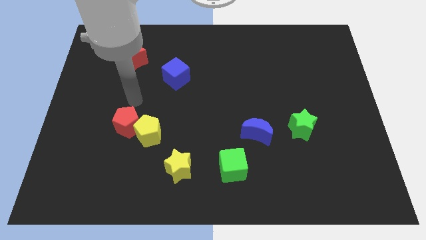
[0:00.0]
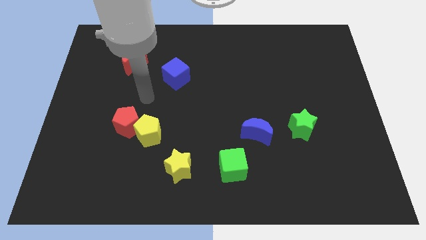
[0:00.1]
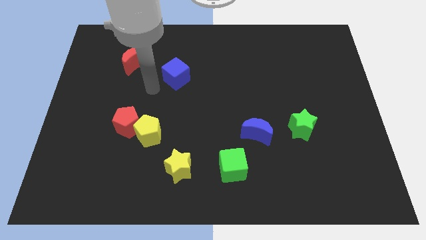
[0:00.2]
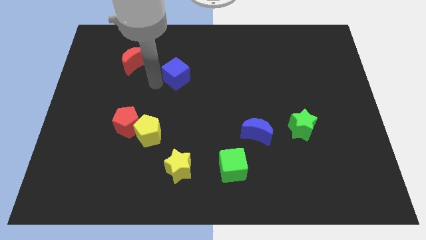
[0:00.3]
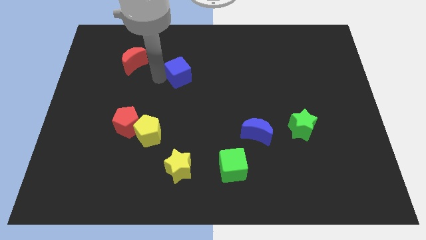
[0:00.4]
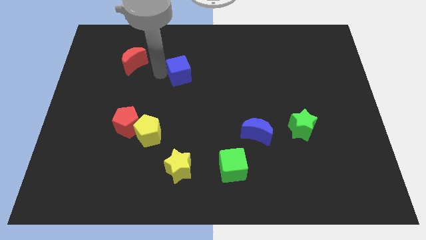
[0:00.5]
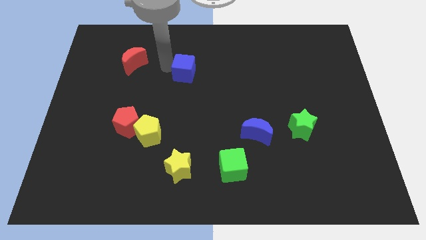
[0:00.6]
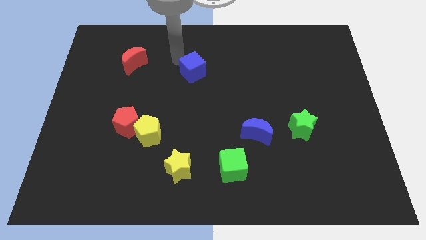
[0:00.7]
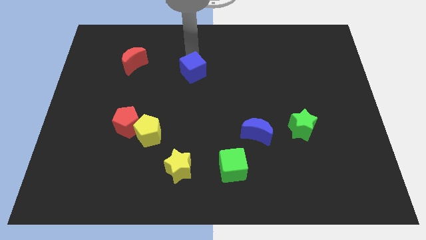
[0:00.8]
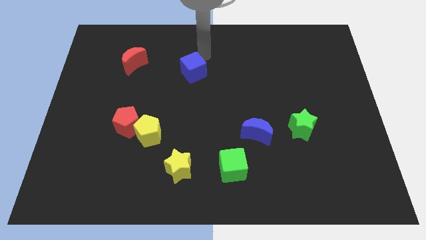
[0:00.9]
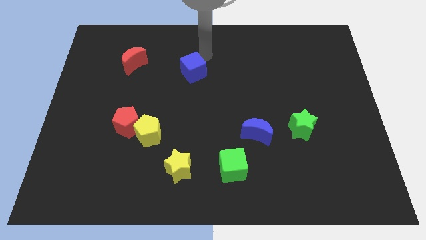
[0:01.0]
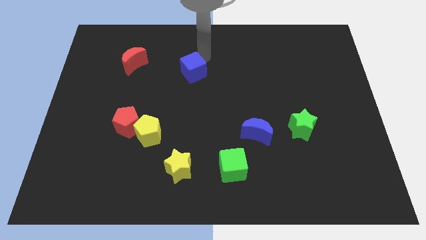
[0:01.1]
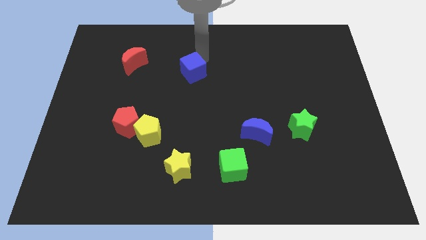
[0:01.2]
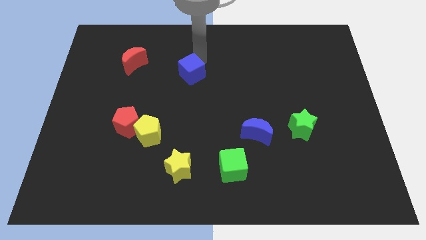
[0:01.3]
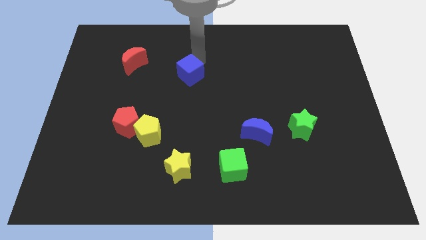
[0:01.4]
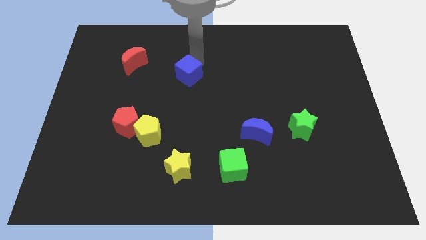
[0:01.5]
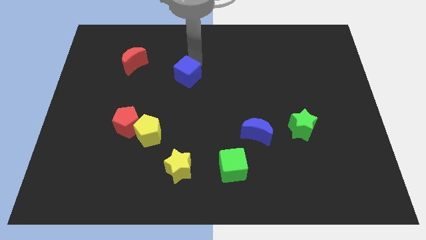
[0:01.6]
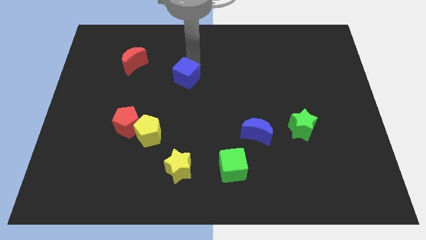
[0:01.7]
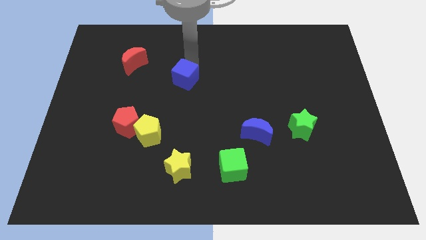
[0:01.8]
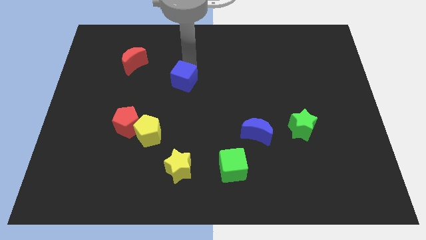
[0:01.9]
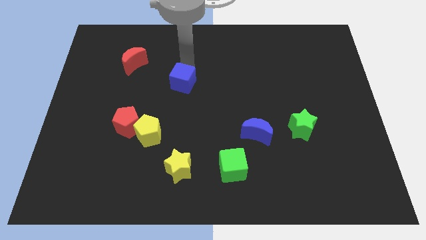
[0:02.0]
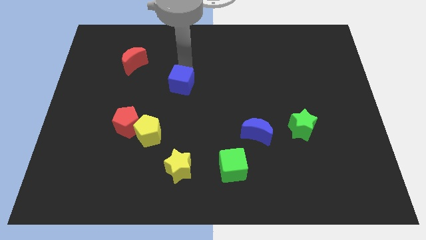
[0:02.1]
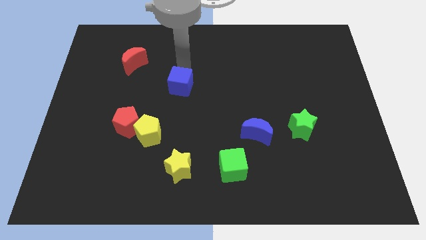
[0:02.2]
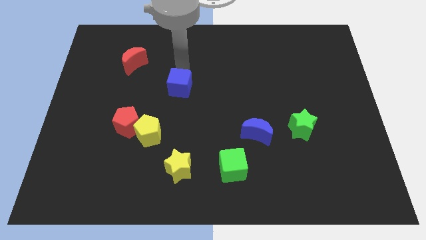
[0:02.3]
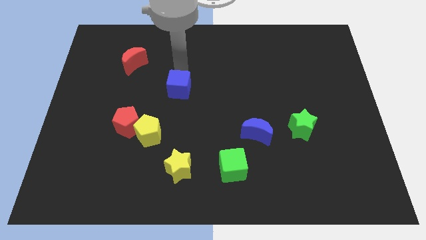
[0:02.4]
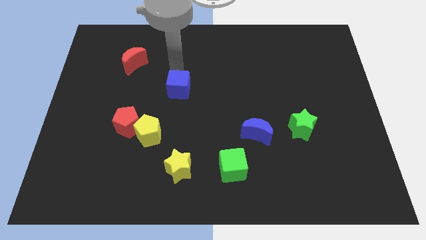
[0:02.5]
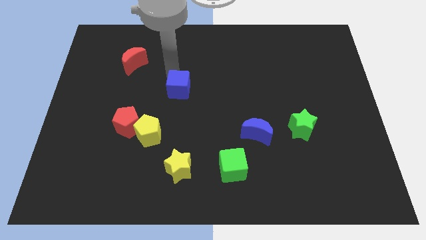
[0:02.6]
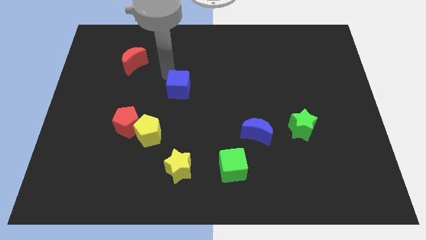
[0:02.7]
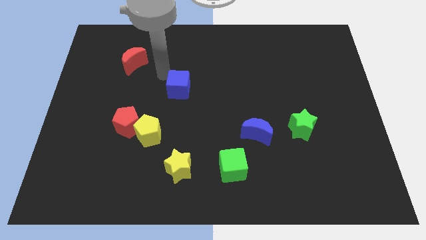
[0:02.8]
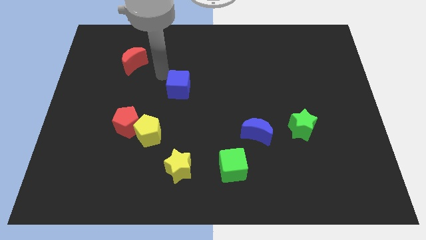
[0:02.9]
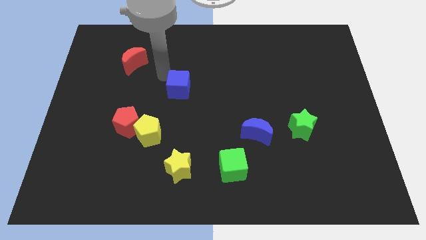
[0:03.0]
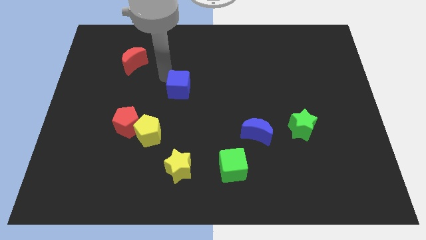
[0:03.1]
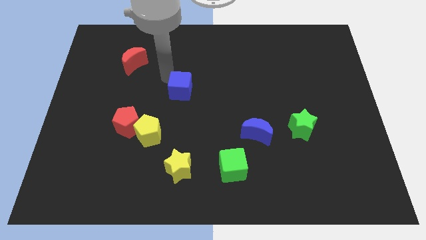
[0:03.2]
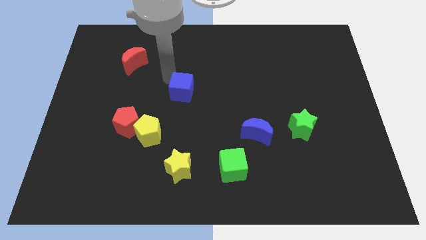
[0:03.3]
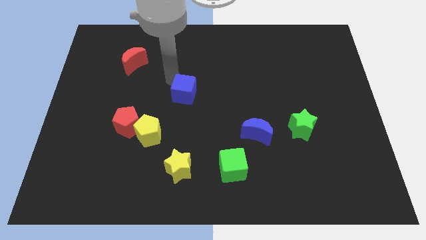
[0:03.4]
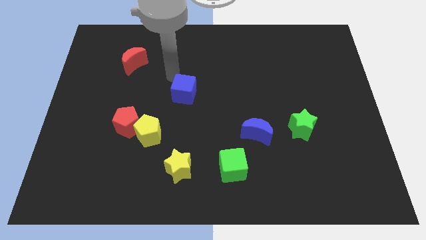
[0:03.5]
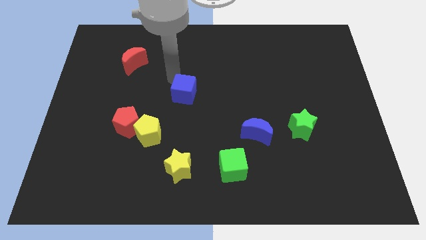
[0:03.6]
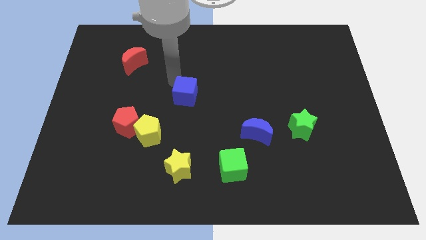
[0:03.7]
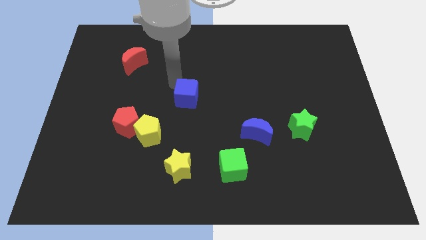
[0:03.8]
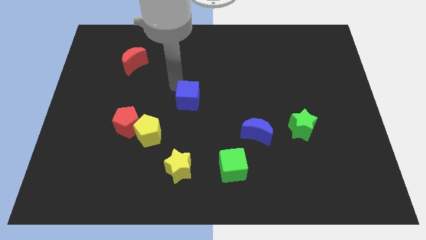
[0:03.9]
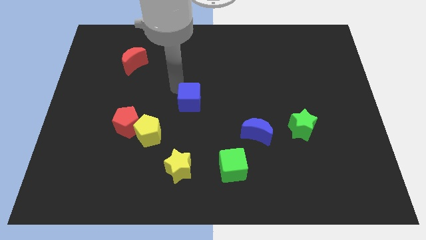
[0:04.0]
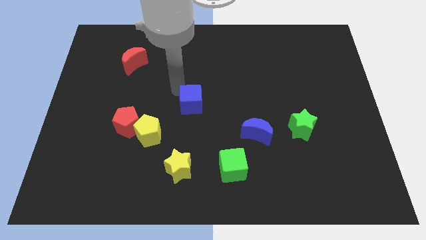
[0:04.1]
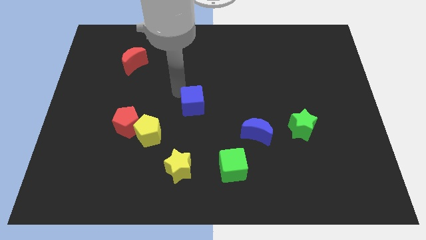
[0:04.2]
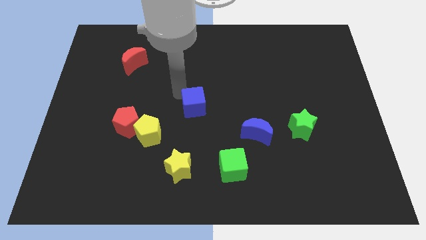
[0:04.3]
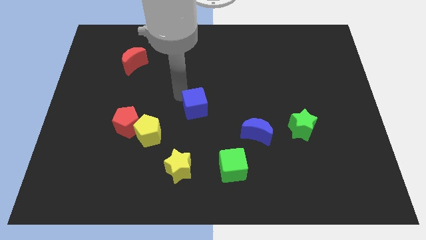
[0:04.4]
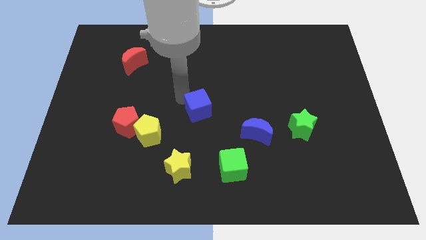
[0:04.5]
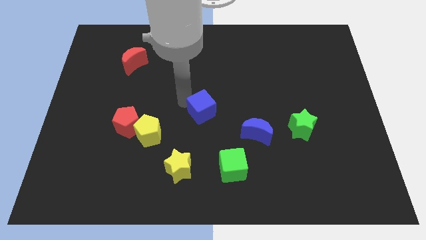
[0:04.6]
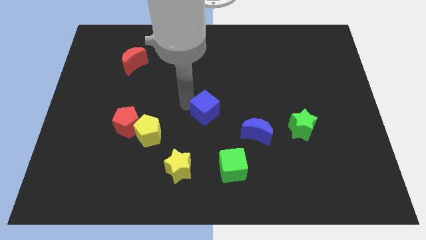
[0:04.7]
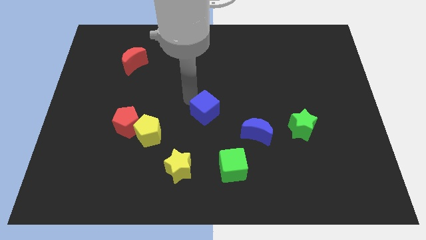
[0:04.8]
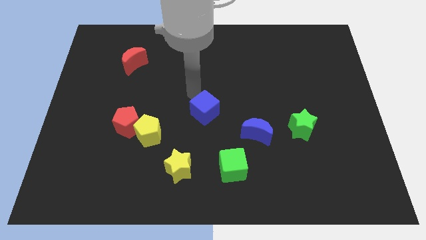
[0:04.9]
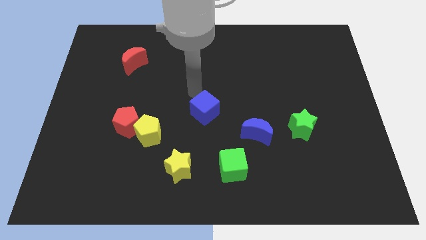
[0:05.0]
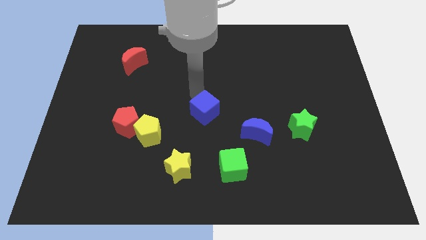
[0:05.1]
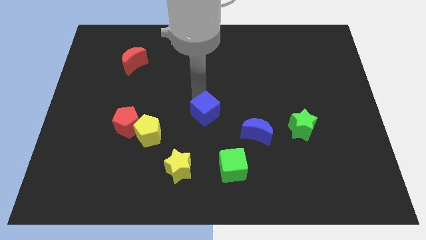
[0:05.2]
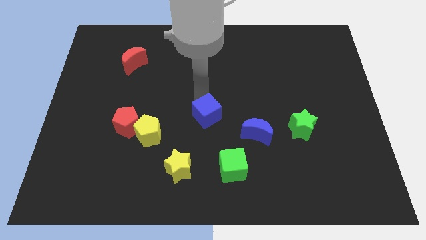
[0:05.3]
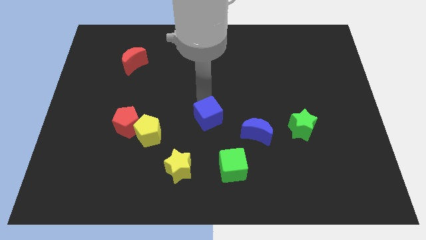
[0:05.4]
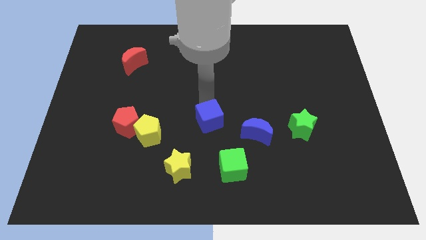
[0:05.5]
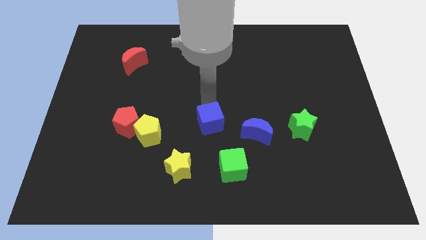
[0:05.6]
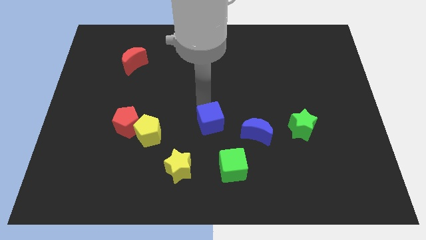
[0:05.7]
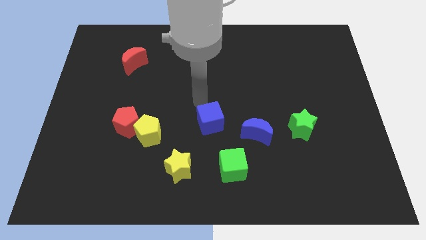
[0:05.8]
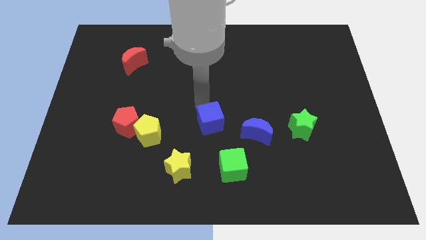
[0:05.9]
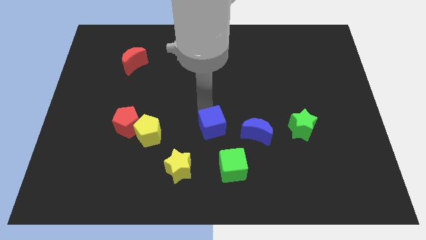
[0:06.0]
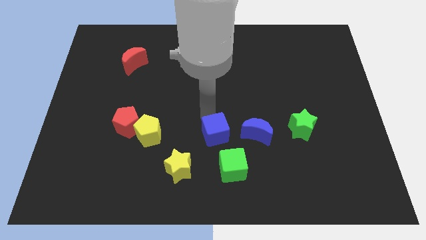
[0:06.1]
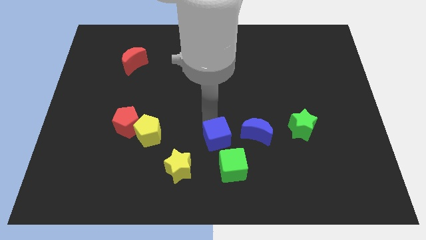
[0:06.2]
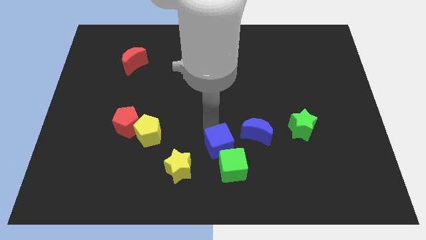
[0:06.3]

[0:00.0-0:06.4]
push the blue cube down and then to the right

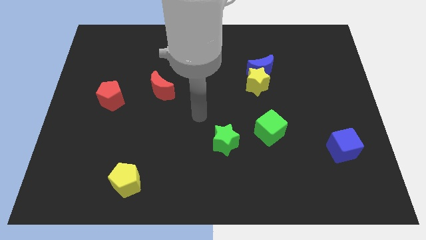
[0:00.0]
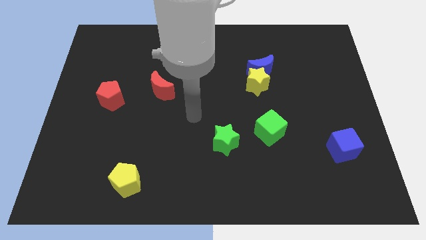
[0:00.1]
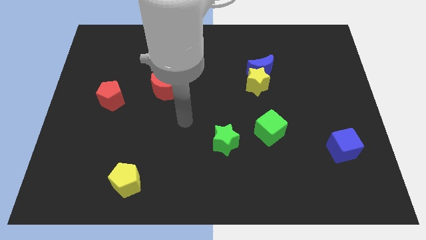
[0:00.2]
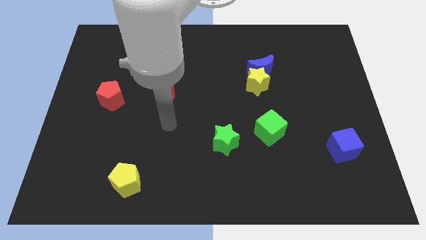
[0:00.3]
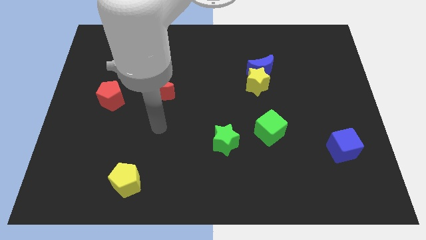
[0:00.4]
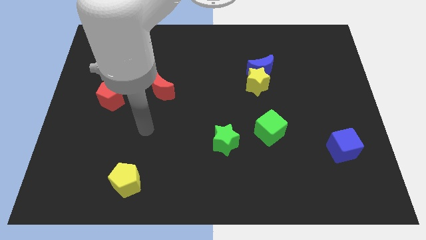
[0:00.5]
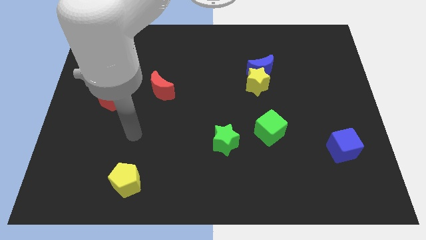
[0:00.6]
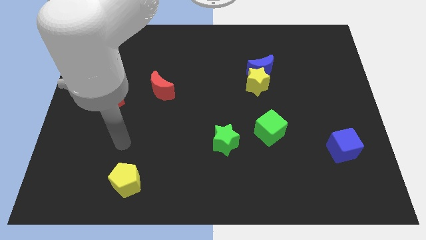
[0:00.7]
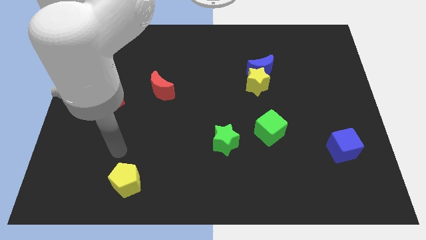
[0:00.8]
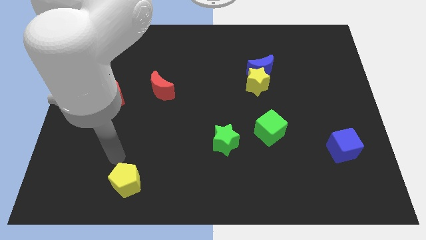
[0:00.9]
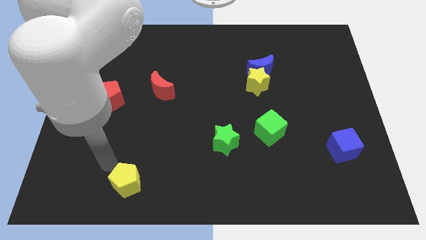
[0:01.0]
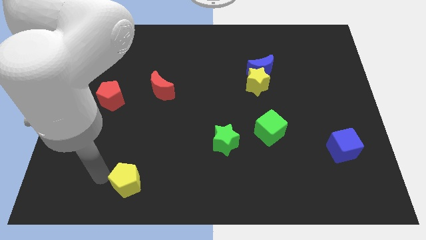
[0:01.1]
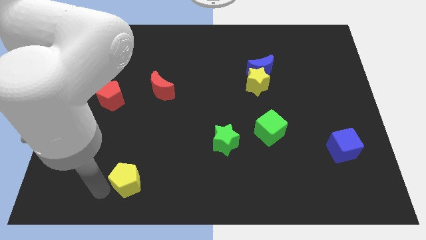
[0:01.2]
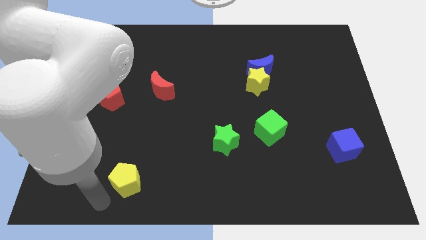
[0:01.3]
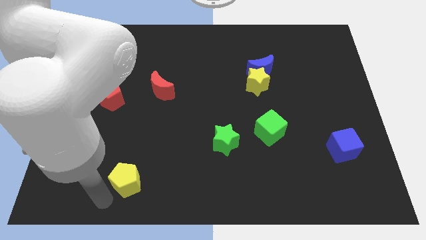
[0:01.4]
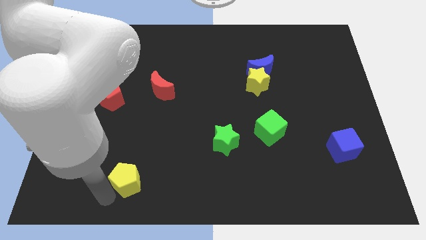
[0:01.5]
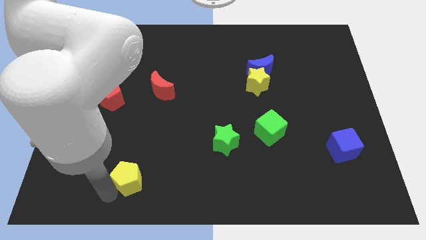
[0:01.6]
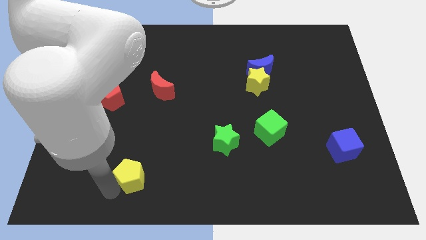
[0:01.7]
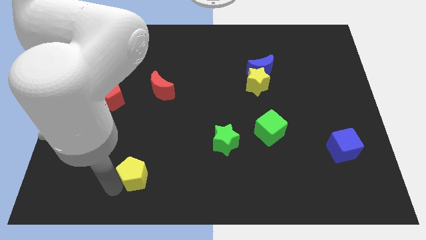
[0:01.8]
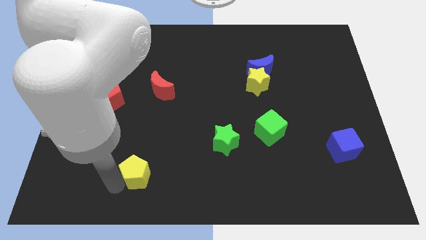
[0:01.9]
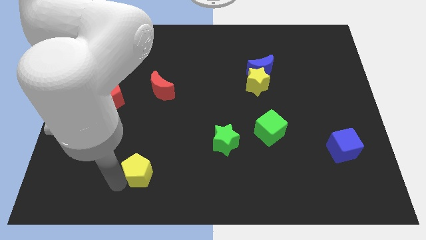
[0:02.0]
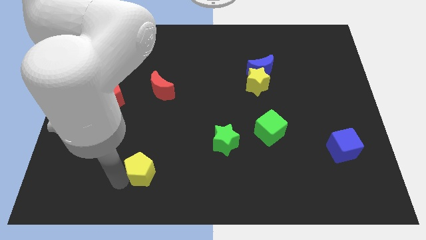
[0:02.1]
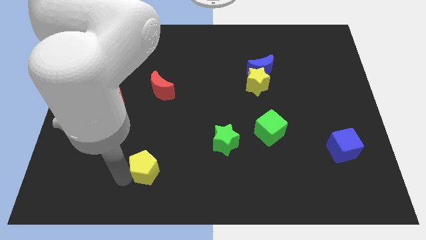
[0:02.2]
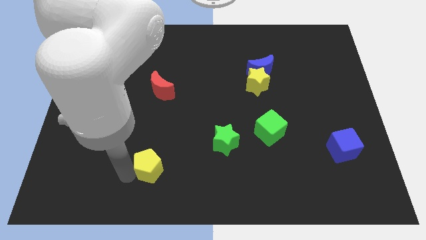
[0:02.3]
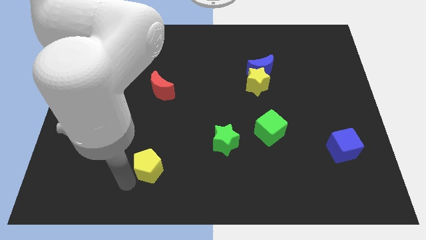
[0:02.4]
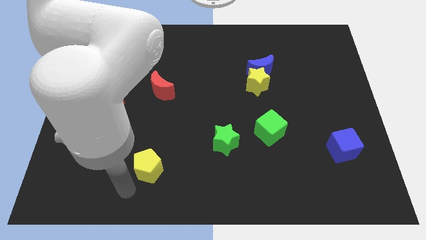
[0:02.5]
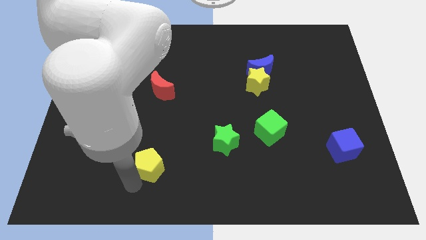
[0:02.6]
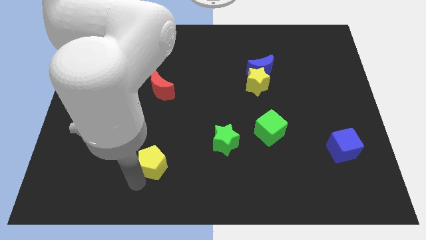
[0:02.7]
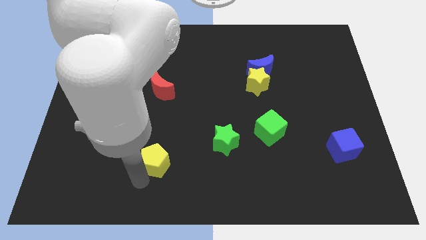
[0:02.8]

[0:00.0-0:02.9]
slightly move the yellow pentagon diagonally up and right
